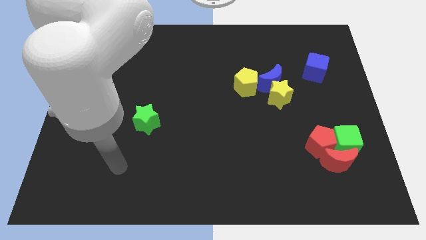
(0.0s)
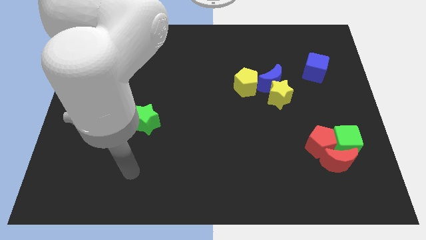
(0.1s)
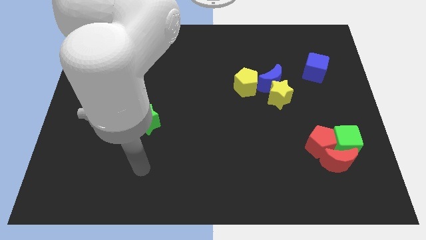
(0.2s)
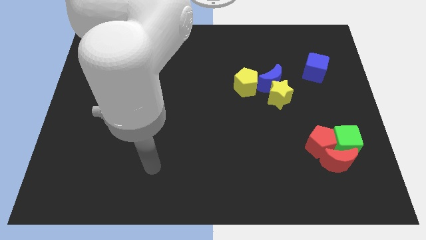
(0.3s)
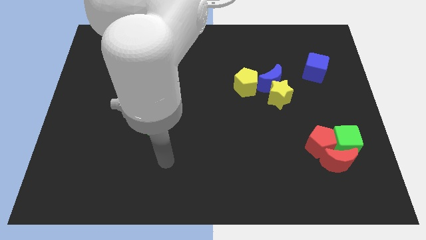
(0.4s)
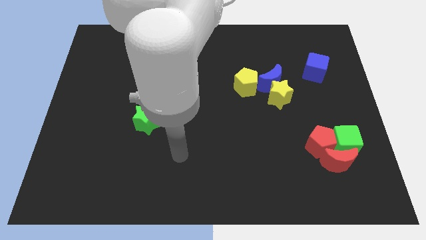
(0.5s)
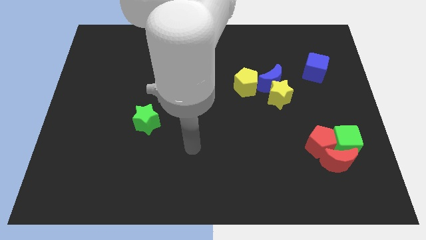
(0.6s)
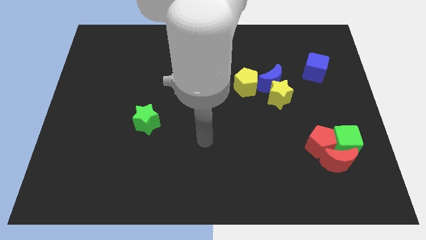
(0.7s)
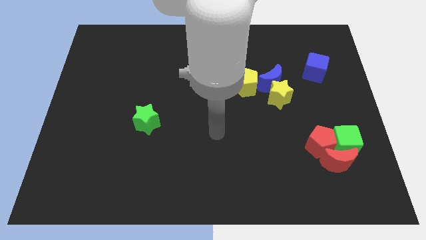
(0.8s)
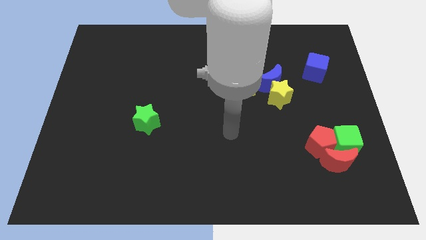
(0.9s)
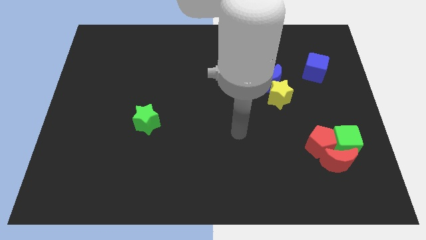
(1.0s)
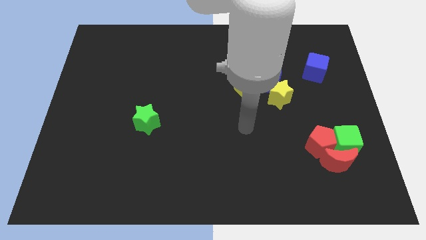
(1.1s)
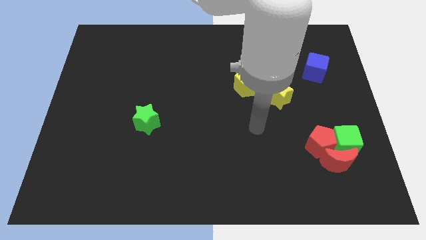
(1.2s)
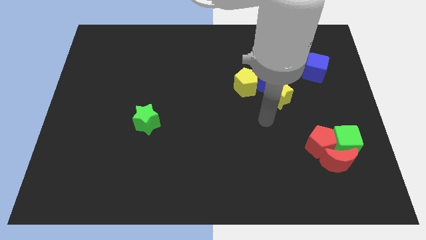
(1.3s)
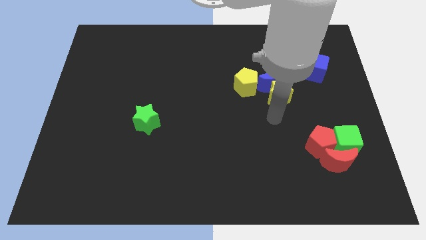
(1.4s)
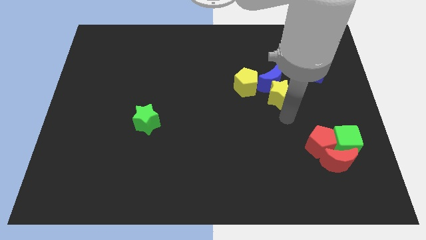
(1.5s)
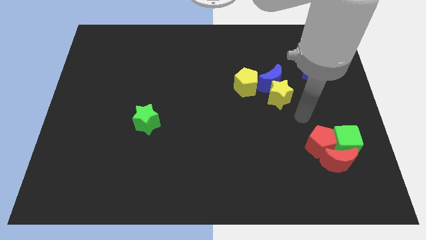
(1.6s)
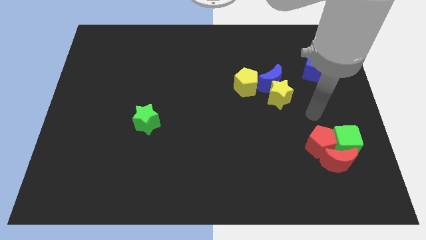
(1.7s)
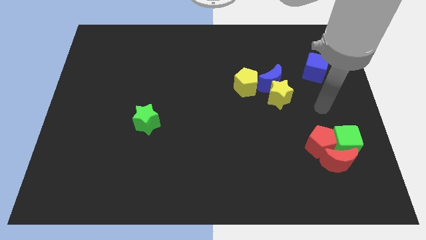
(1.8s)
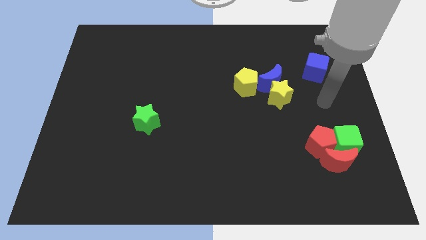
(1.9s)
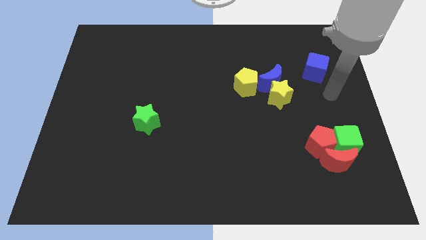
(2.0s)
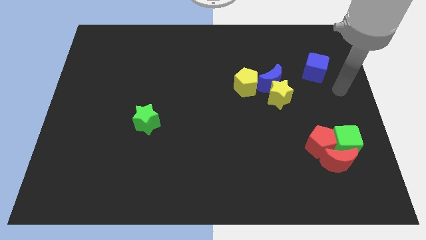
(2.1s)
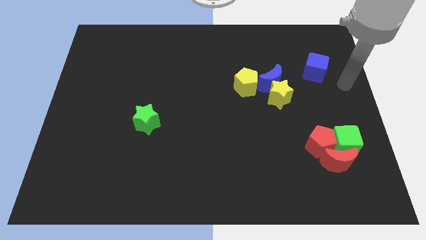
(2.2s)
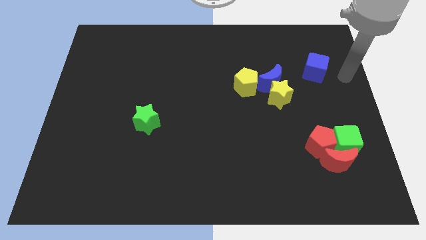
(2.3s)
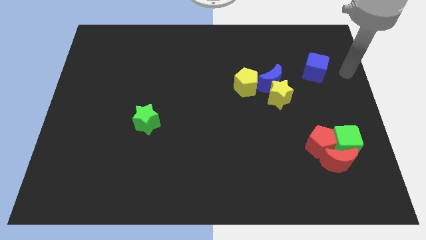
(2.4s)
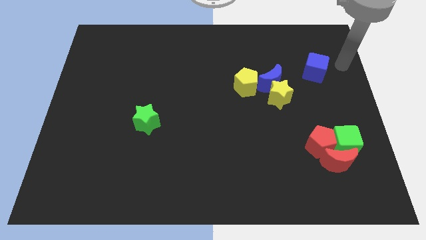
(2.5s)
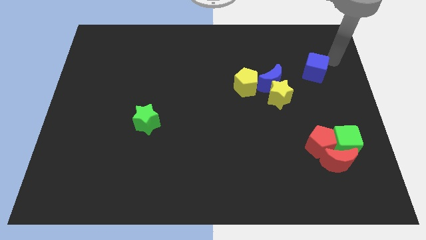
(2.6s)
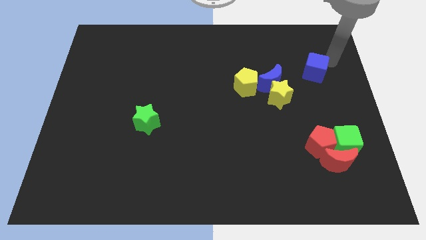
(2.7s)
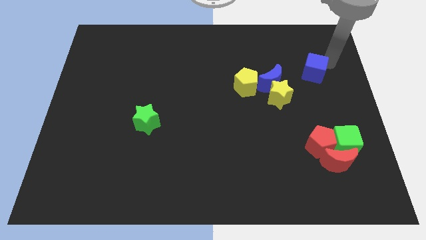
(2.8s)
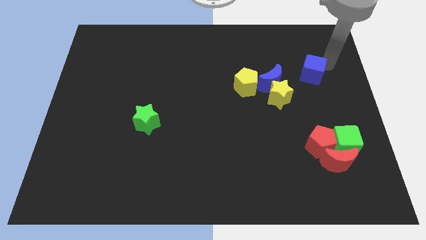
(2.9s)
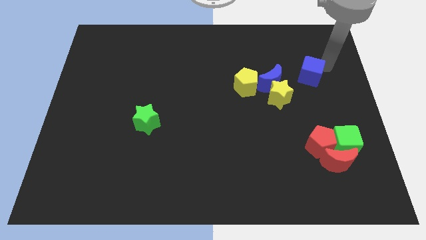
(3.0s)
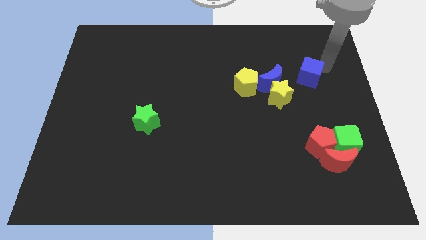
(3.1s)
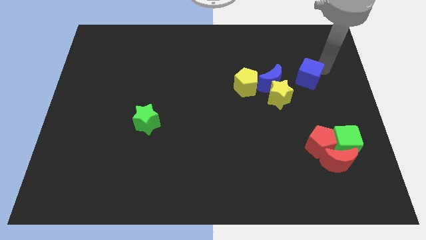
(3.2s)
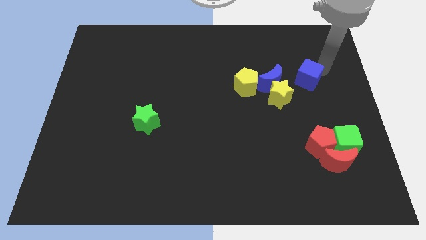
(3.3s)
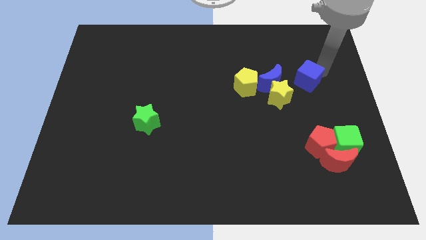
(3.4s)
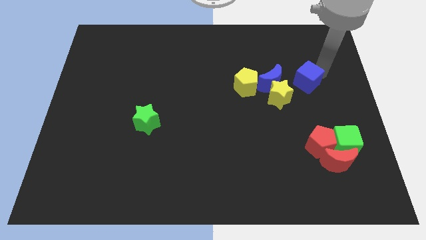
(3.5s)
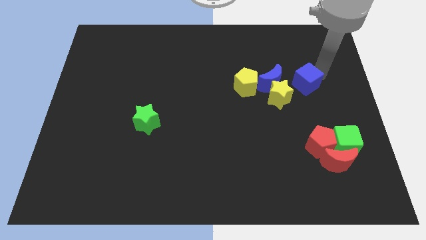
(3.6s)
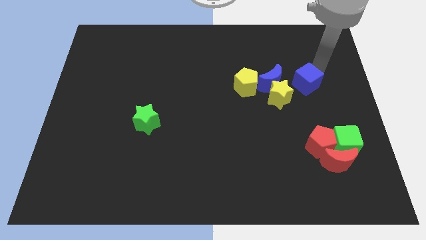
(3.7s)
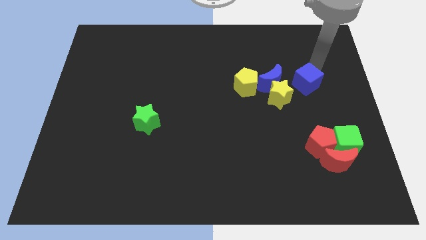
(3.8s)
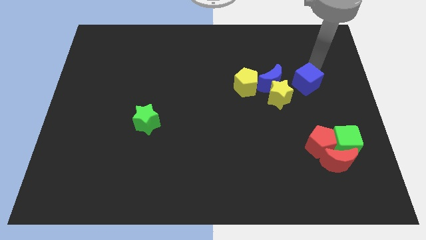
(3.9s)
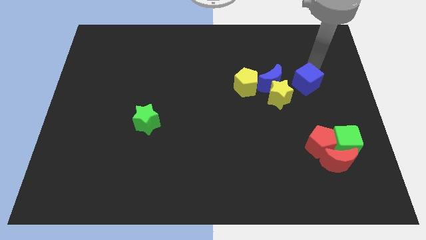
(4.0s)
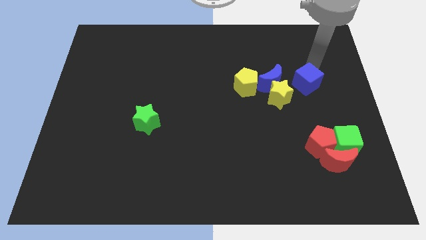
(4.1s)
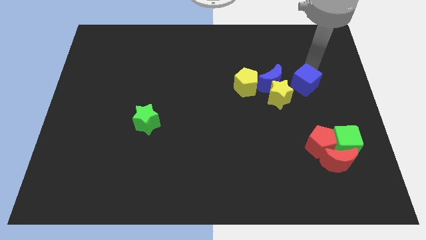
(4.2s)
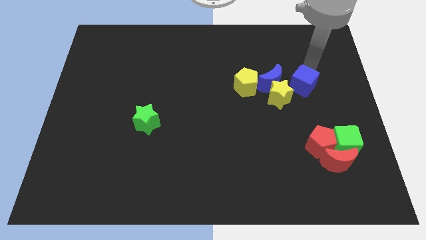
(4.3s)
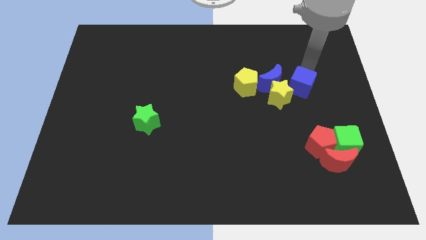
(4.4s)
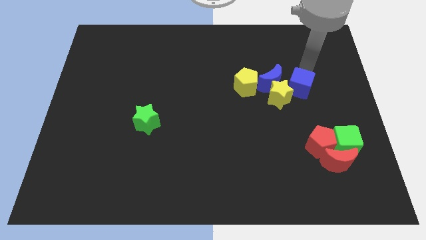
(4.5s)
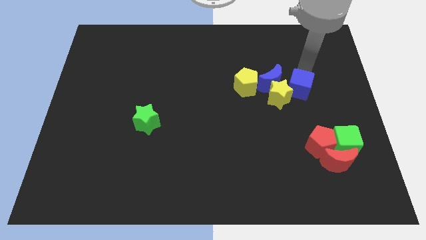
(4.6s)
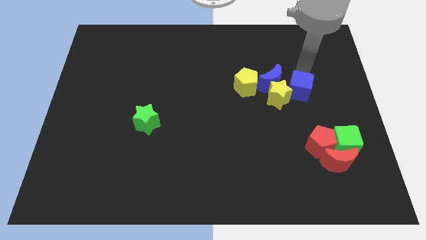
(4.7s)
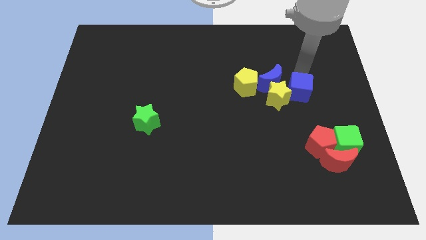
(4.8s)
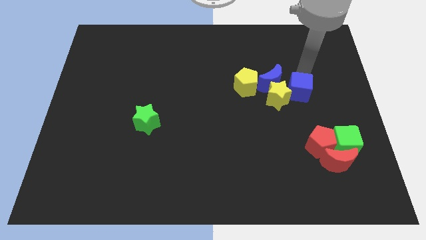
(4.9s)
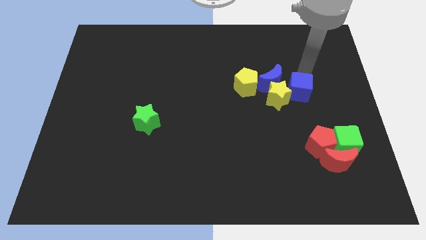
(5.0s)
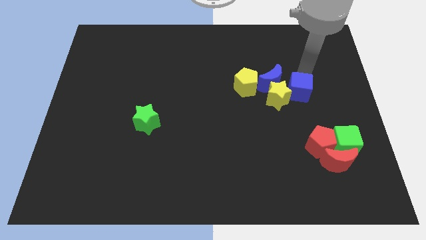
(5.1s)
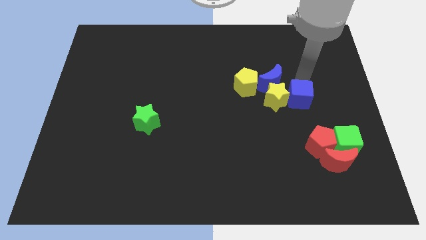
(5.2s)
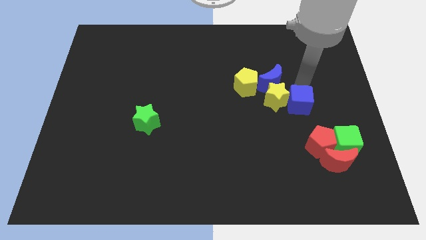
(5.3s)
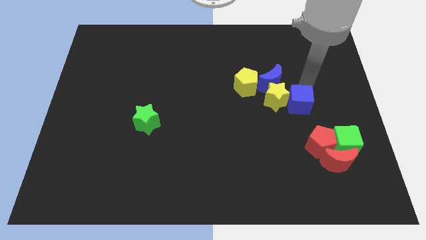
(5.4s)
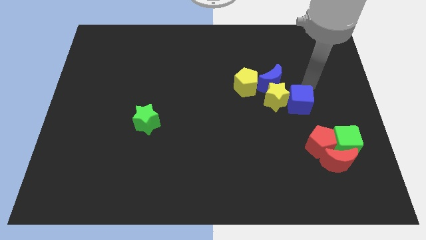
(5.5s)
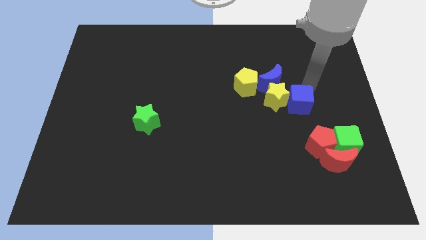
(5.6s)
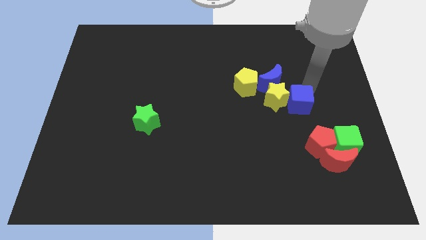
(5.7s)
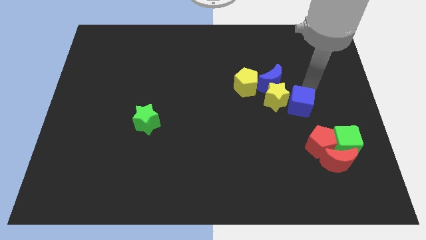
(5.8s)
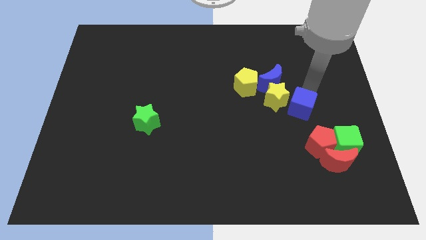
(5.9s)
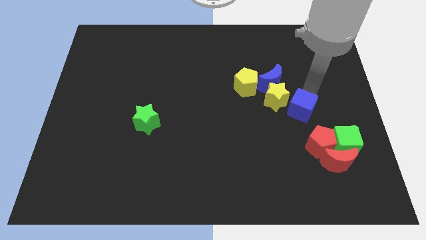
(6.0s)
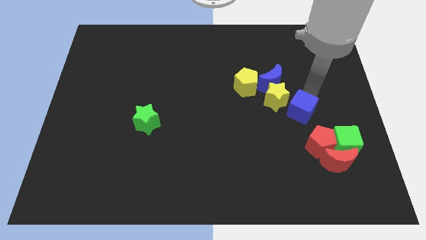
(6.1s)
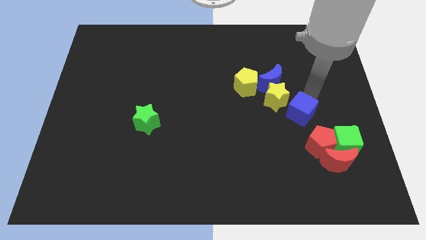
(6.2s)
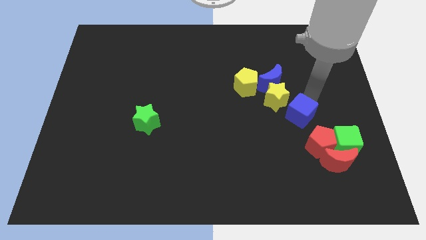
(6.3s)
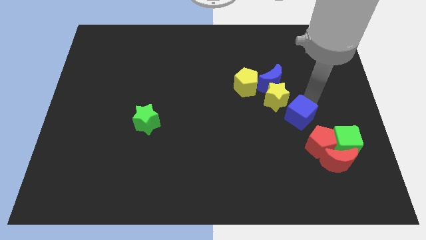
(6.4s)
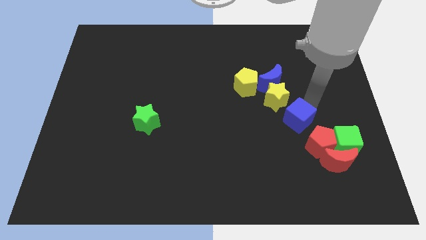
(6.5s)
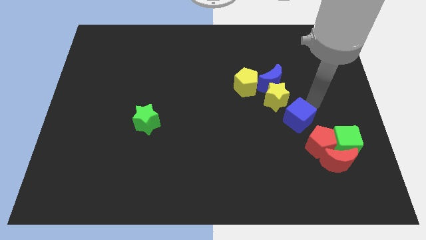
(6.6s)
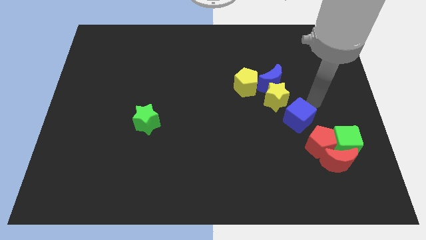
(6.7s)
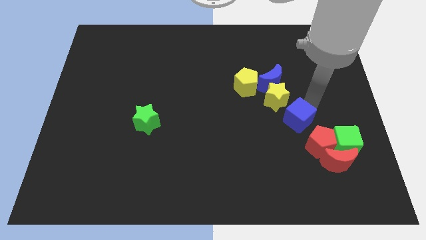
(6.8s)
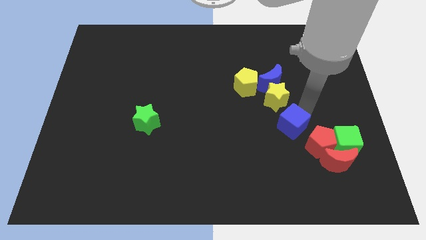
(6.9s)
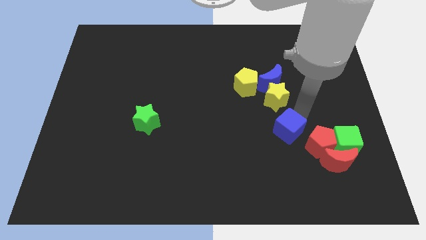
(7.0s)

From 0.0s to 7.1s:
push the blue cube to the left side of the red pentagon
